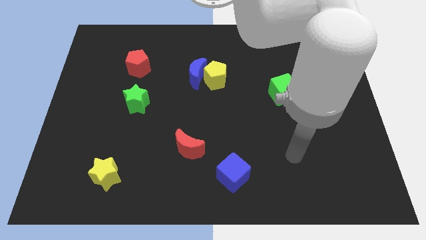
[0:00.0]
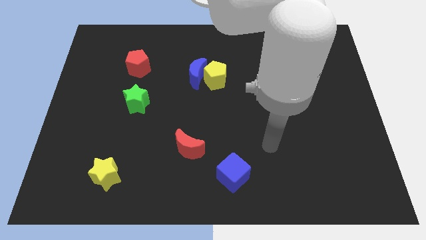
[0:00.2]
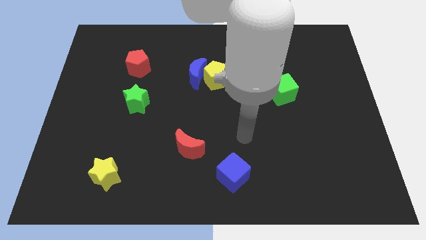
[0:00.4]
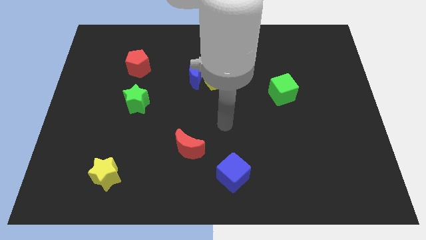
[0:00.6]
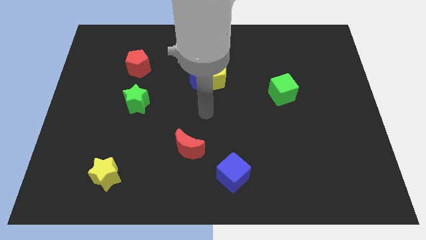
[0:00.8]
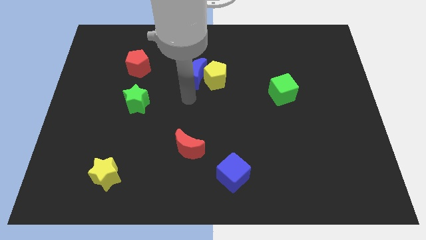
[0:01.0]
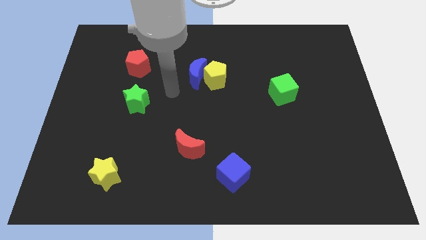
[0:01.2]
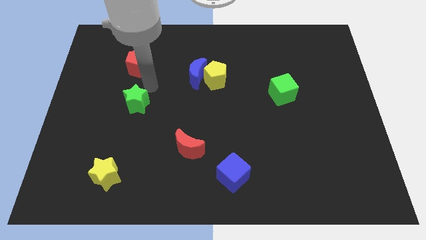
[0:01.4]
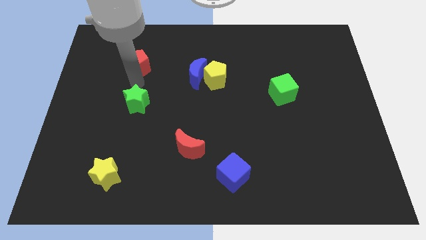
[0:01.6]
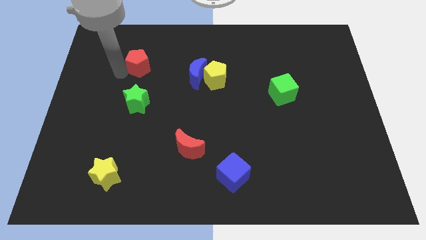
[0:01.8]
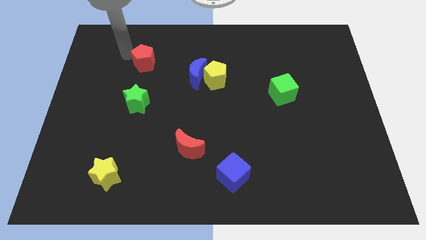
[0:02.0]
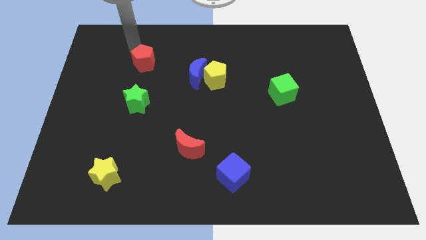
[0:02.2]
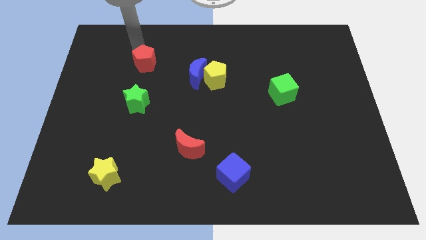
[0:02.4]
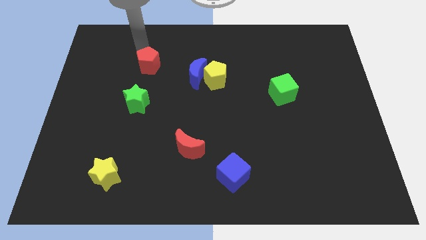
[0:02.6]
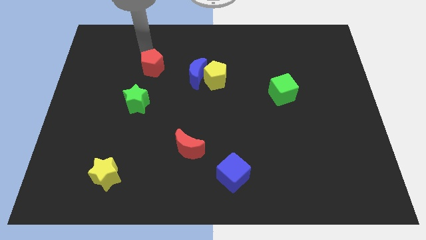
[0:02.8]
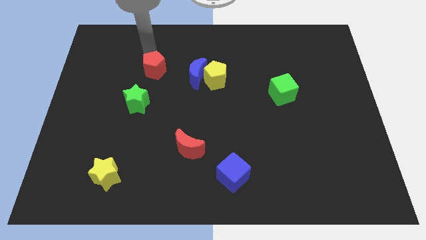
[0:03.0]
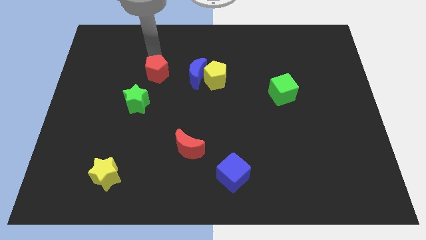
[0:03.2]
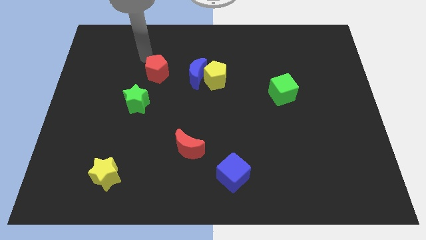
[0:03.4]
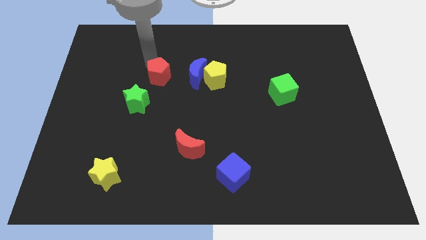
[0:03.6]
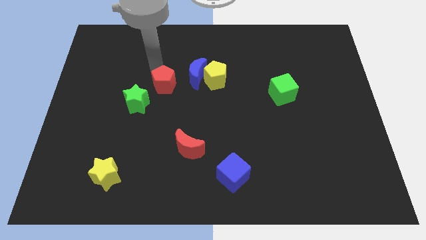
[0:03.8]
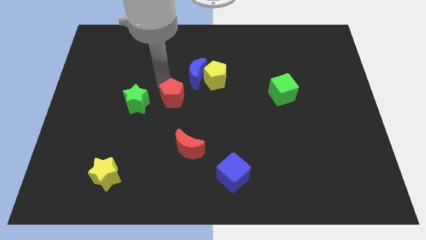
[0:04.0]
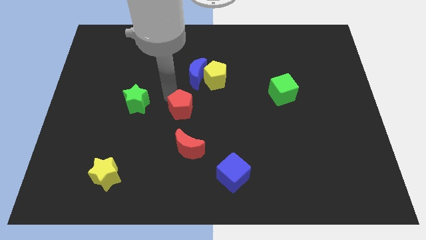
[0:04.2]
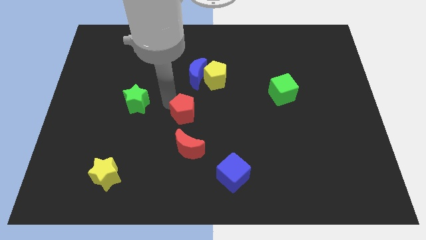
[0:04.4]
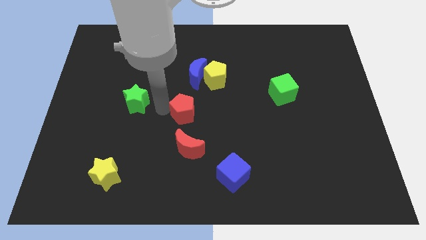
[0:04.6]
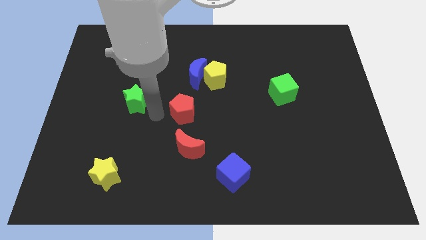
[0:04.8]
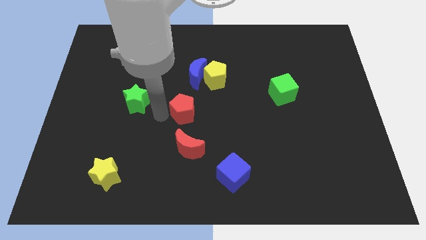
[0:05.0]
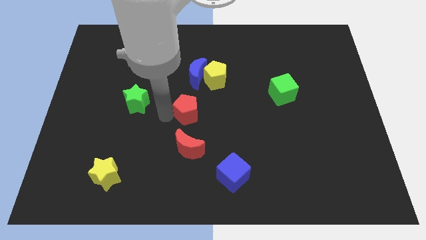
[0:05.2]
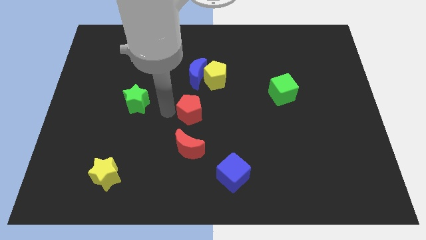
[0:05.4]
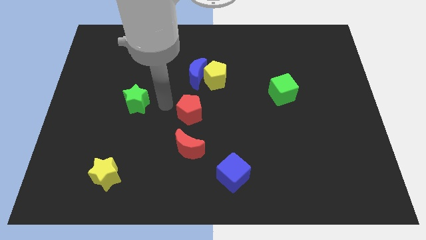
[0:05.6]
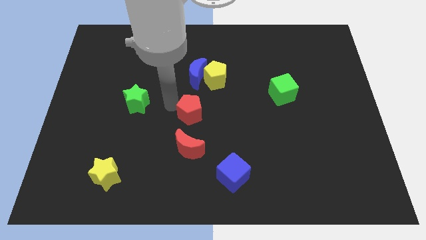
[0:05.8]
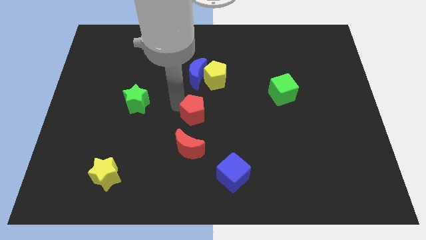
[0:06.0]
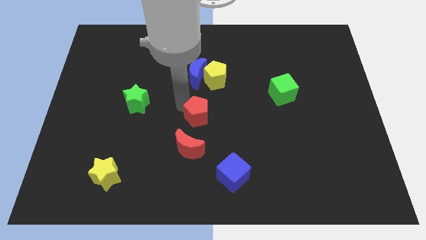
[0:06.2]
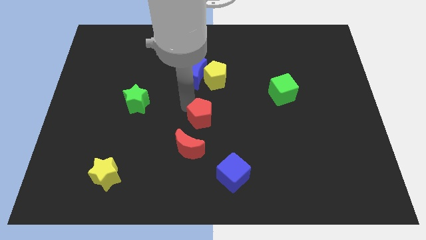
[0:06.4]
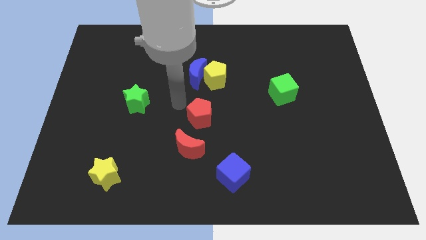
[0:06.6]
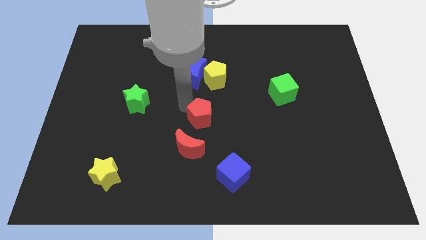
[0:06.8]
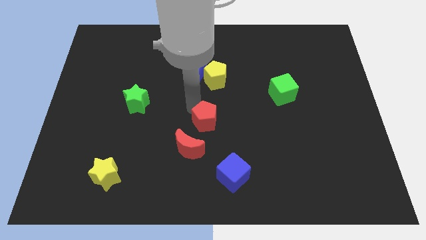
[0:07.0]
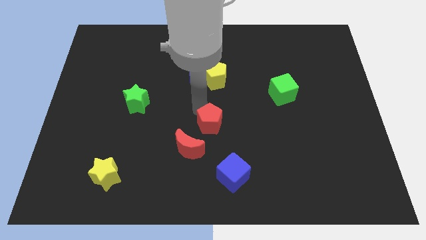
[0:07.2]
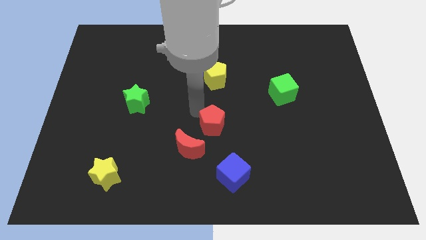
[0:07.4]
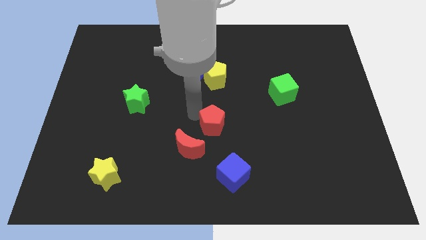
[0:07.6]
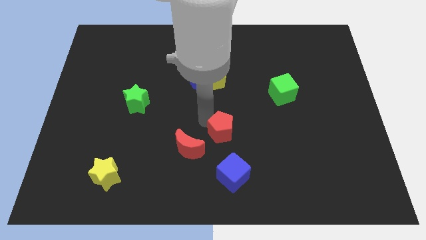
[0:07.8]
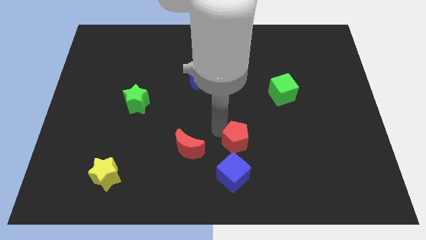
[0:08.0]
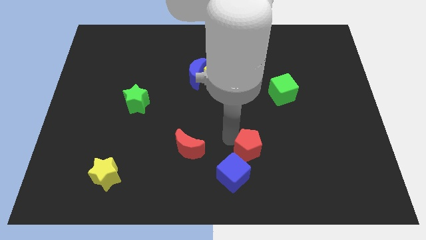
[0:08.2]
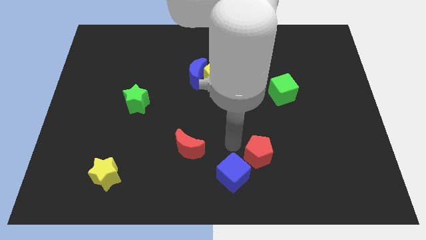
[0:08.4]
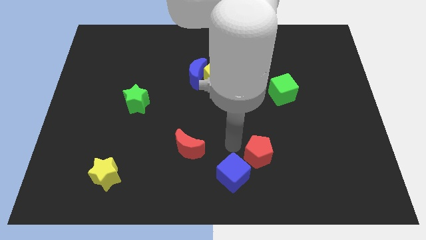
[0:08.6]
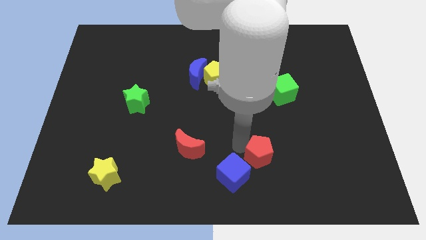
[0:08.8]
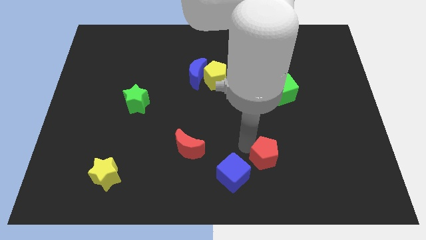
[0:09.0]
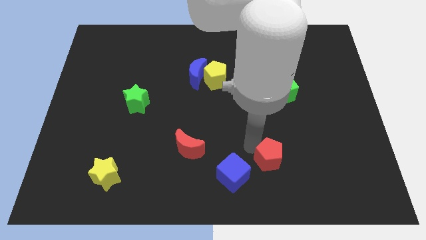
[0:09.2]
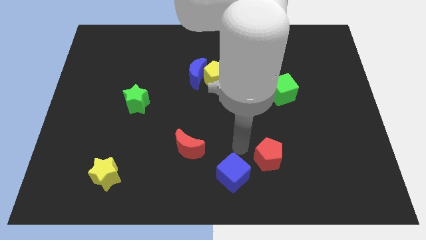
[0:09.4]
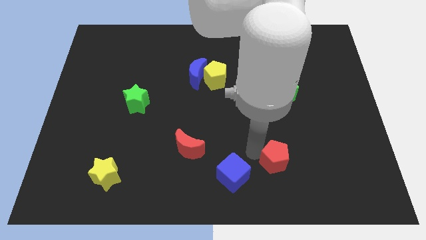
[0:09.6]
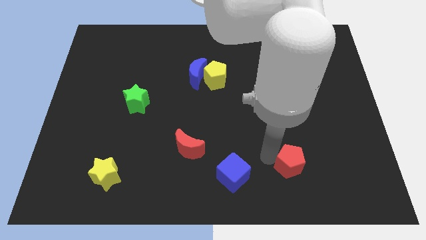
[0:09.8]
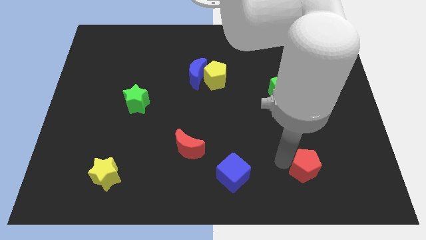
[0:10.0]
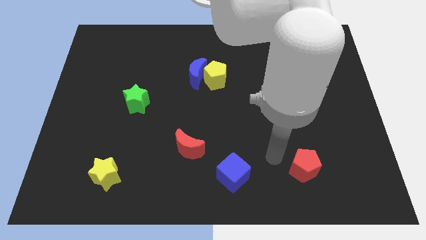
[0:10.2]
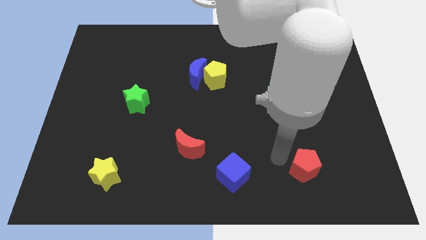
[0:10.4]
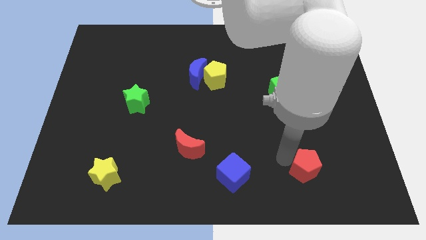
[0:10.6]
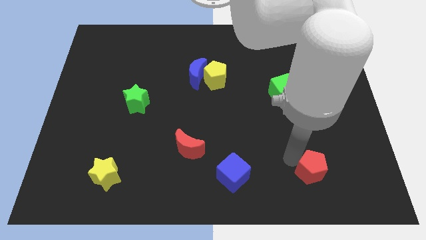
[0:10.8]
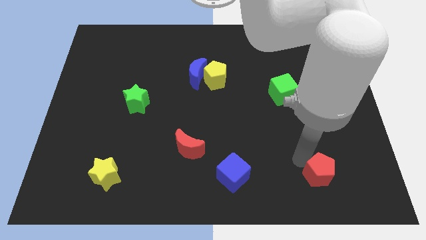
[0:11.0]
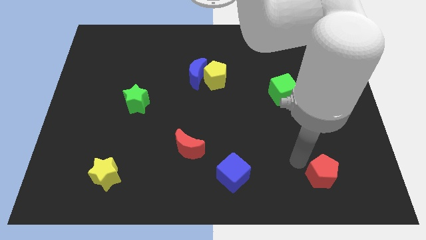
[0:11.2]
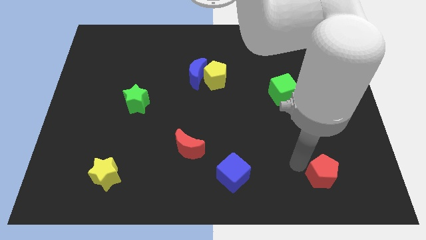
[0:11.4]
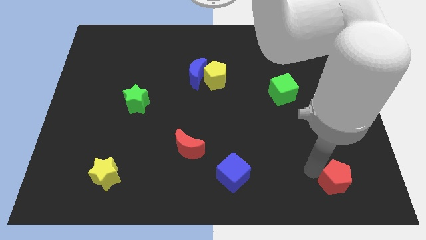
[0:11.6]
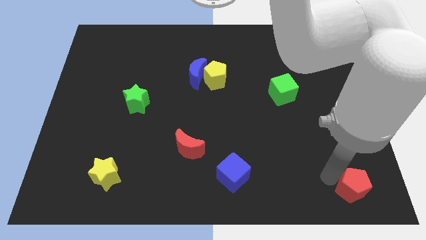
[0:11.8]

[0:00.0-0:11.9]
push the red pentagon to the bottom right of the board

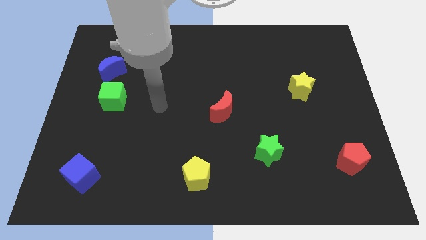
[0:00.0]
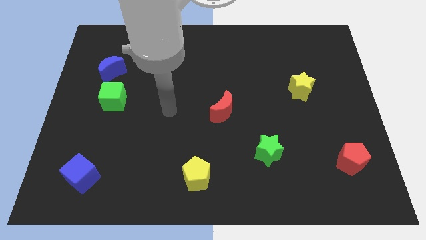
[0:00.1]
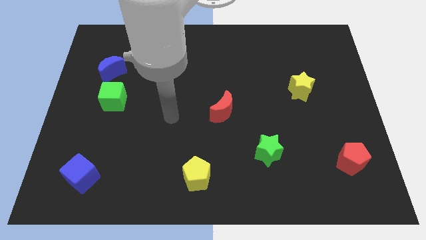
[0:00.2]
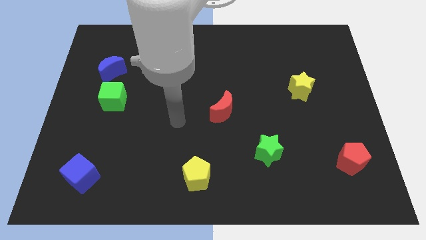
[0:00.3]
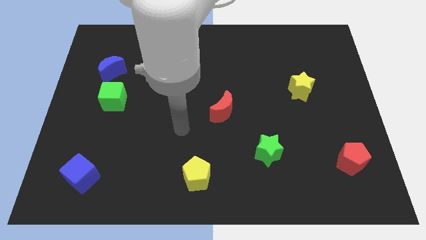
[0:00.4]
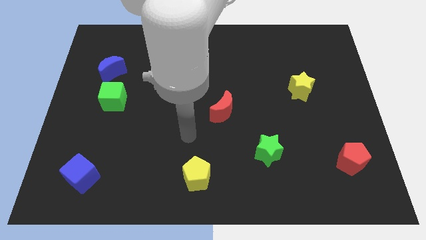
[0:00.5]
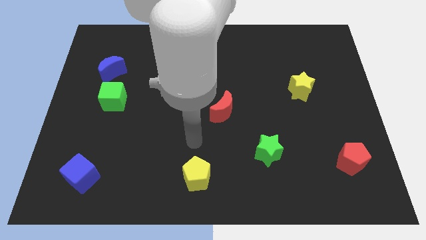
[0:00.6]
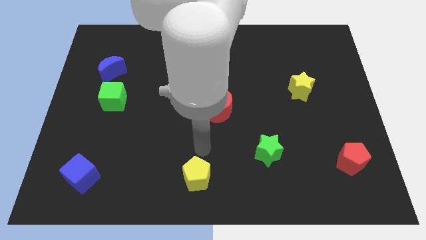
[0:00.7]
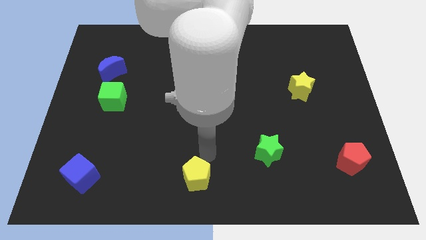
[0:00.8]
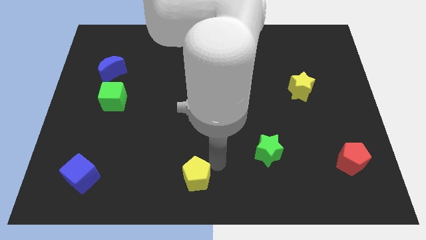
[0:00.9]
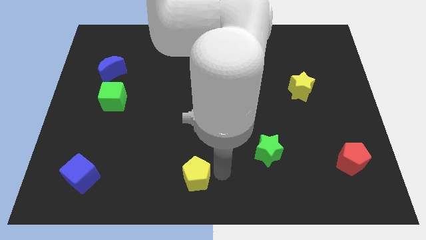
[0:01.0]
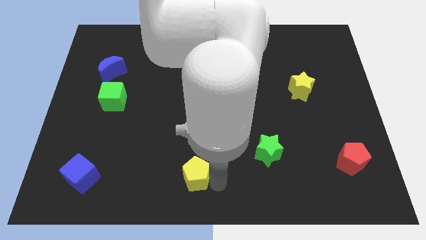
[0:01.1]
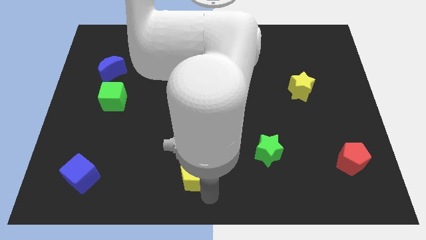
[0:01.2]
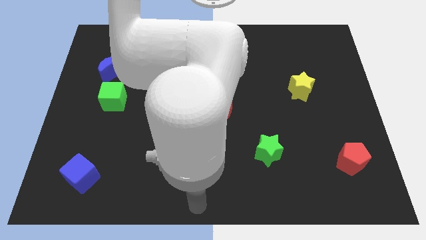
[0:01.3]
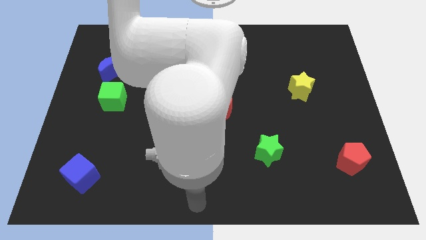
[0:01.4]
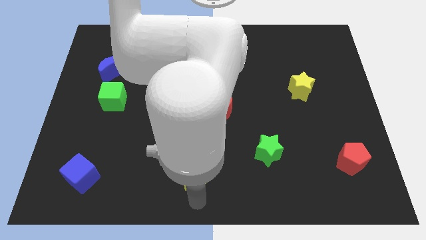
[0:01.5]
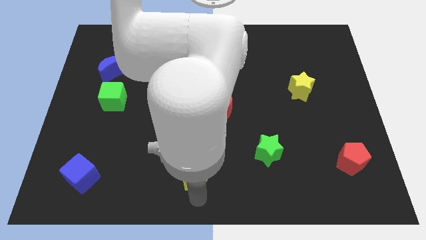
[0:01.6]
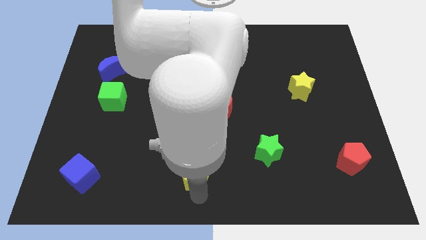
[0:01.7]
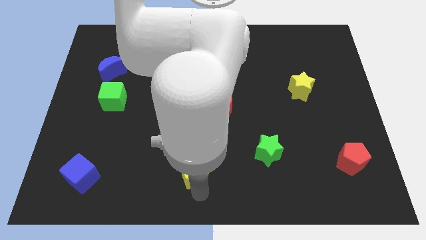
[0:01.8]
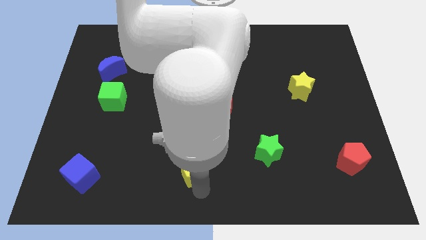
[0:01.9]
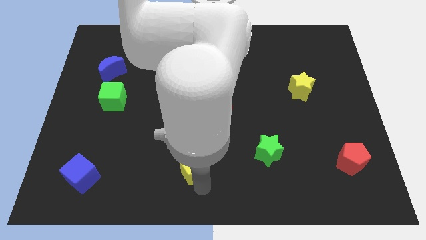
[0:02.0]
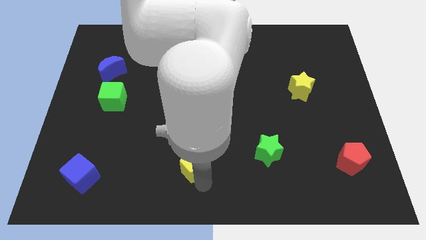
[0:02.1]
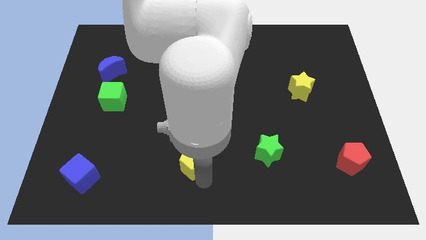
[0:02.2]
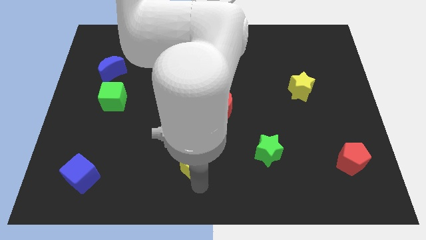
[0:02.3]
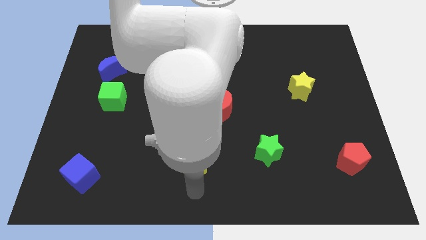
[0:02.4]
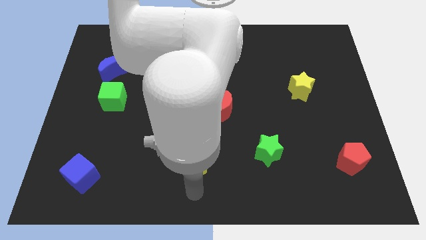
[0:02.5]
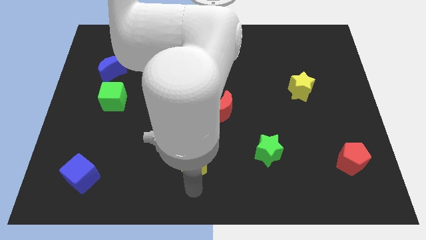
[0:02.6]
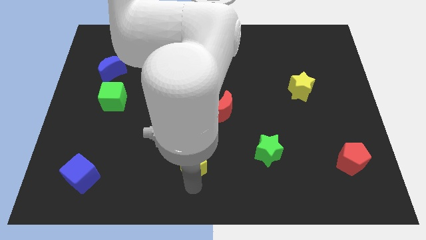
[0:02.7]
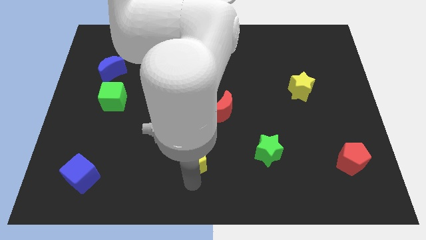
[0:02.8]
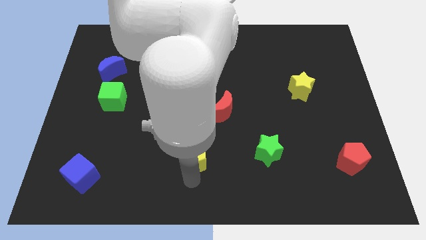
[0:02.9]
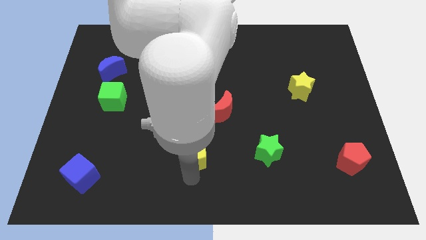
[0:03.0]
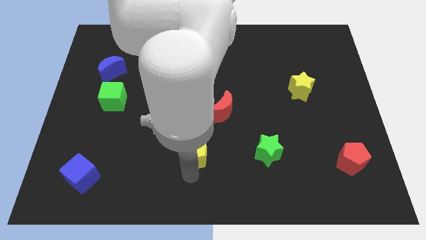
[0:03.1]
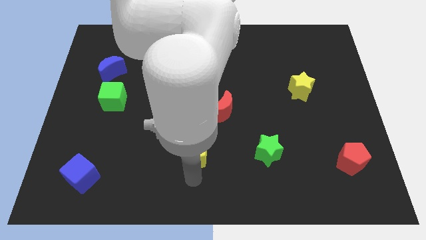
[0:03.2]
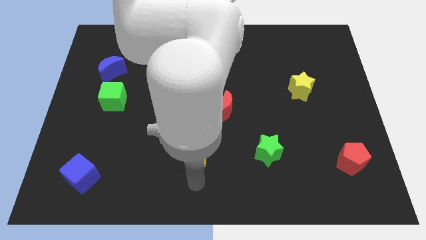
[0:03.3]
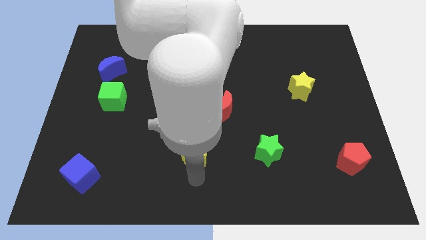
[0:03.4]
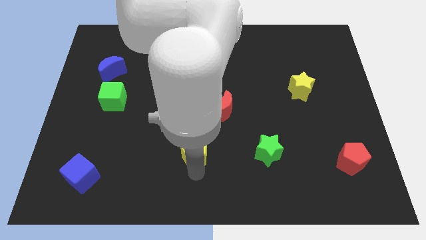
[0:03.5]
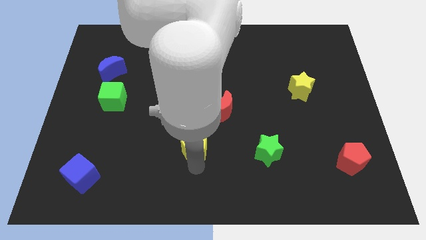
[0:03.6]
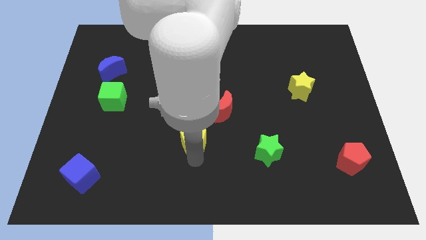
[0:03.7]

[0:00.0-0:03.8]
put the yellow pentagon to the center
